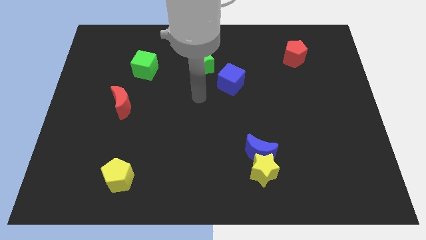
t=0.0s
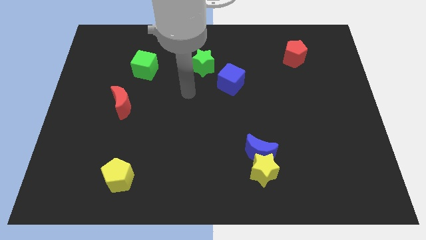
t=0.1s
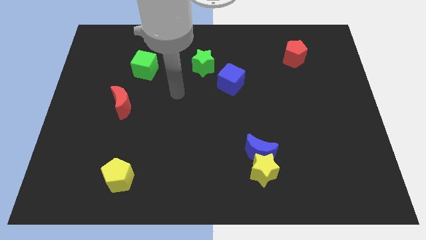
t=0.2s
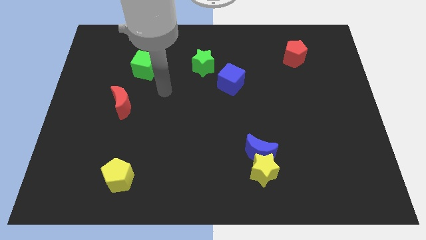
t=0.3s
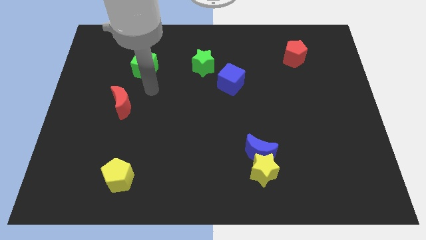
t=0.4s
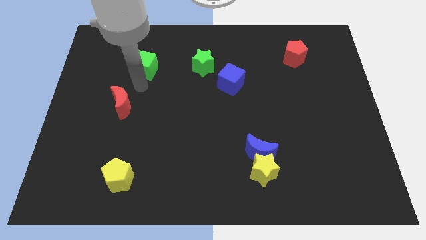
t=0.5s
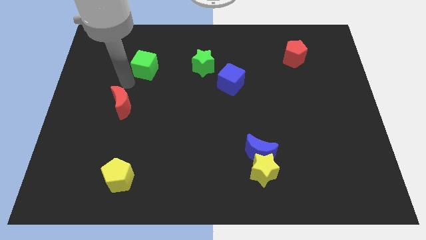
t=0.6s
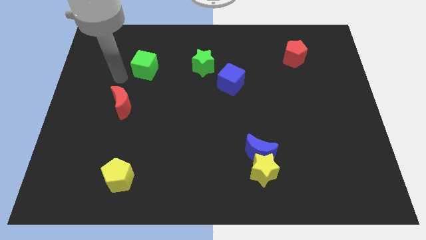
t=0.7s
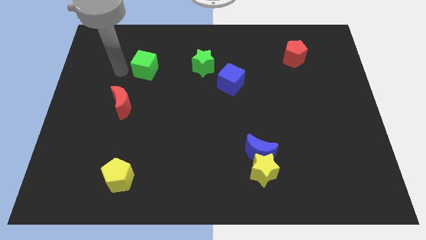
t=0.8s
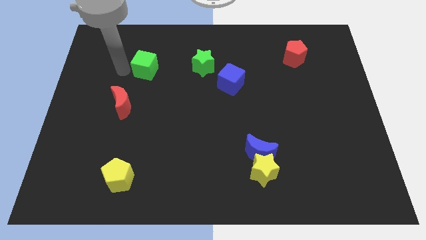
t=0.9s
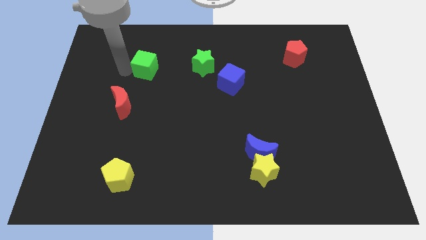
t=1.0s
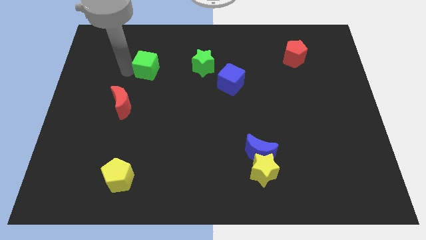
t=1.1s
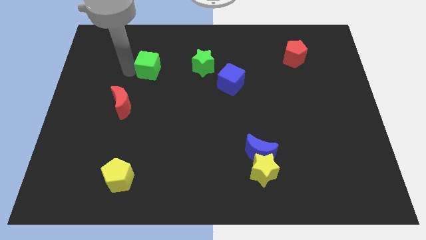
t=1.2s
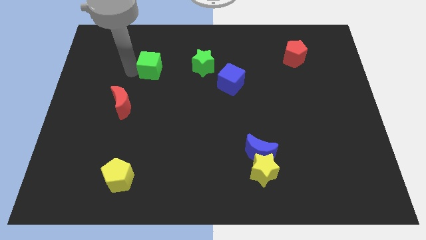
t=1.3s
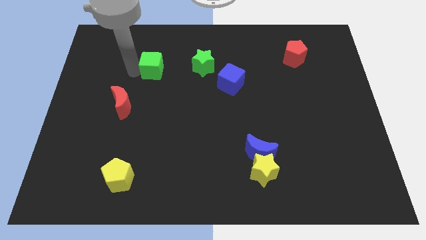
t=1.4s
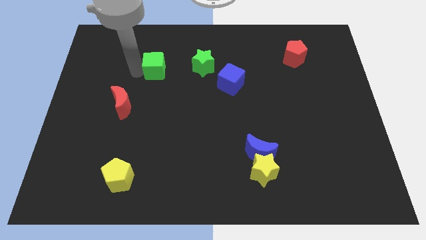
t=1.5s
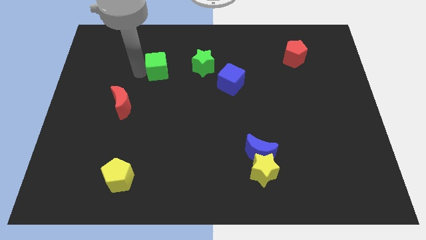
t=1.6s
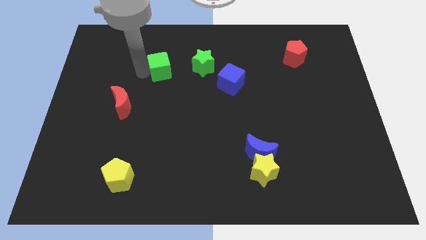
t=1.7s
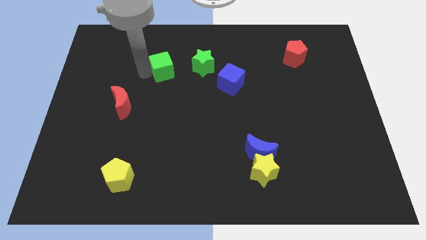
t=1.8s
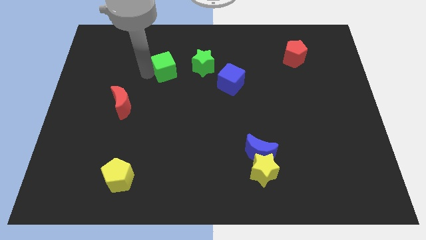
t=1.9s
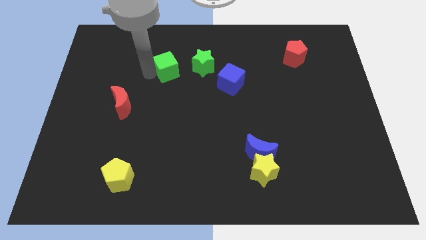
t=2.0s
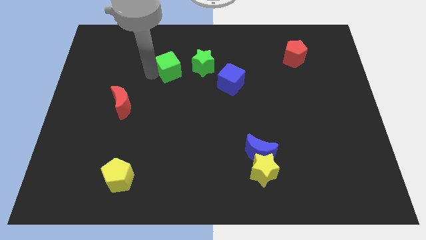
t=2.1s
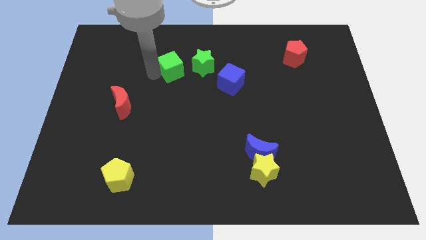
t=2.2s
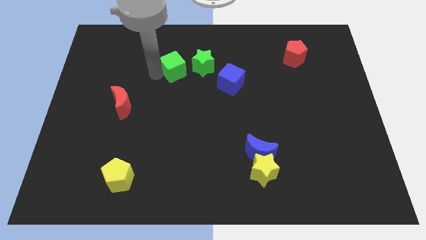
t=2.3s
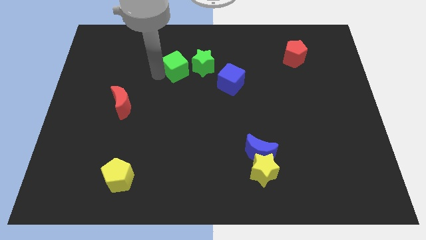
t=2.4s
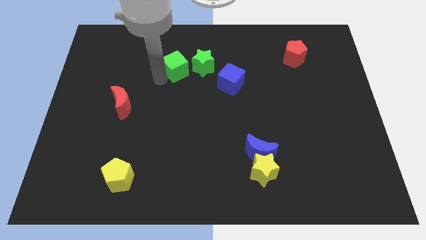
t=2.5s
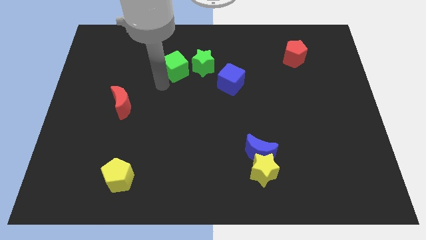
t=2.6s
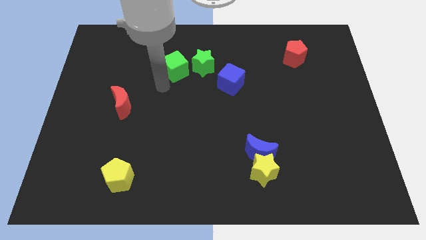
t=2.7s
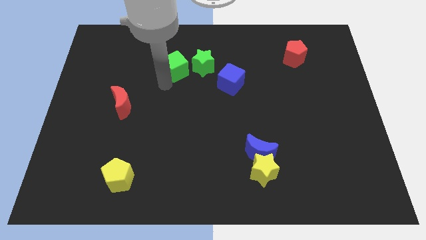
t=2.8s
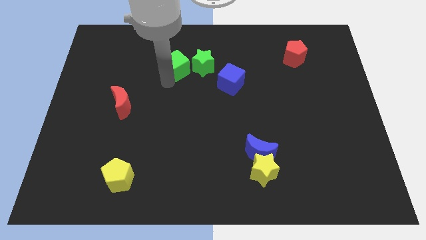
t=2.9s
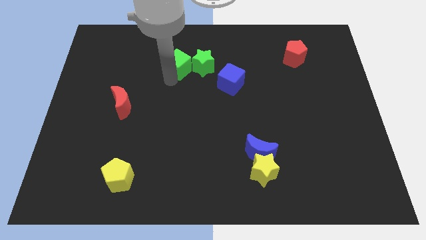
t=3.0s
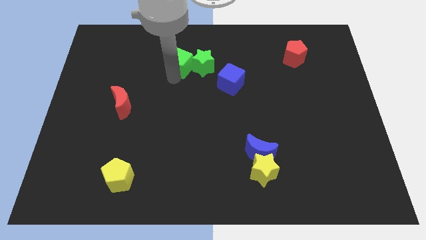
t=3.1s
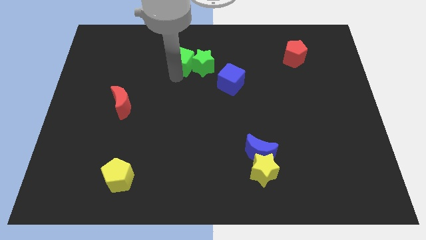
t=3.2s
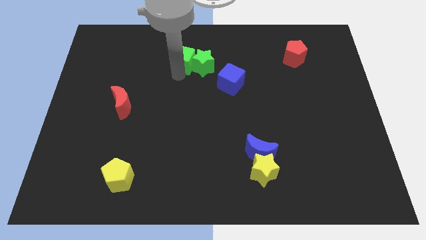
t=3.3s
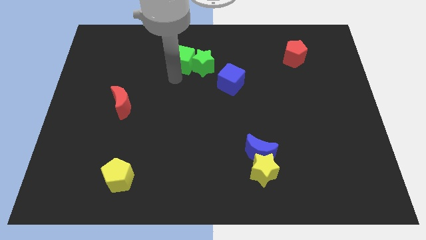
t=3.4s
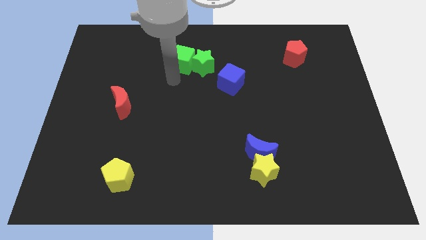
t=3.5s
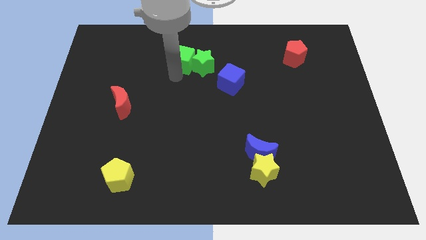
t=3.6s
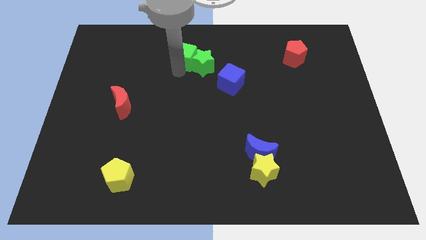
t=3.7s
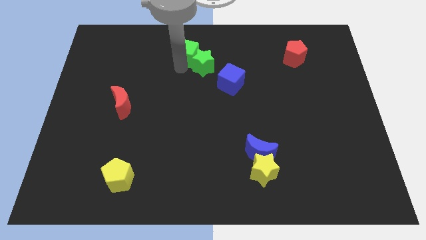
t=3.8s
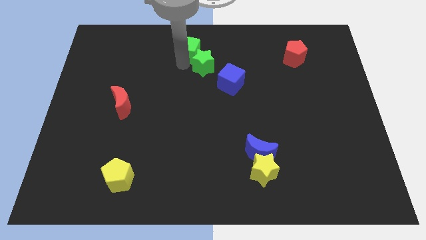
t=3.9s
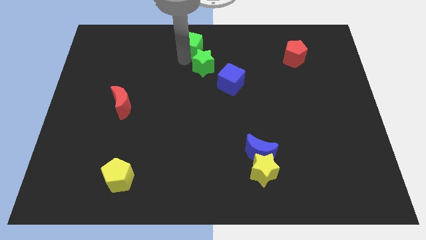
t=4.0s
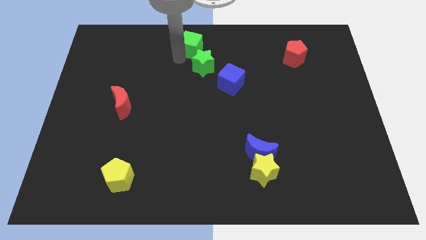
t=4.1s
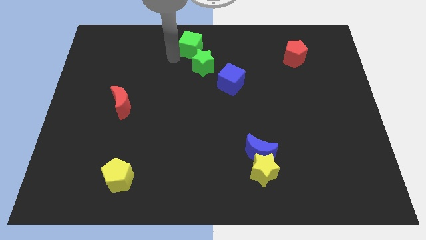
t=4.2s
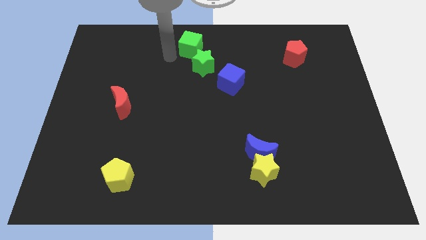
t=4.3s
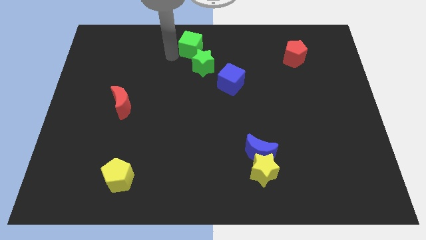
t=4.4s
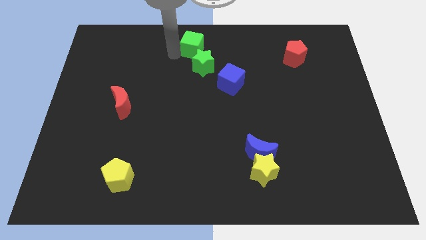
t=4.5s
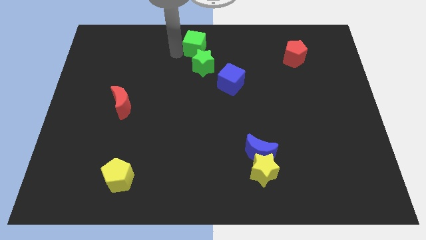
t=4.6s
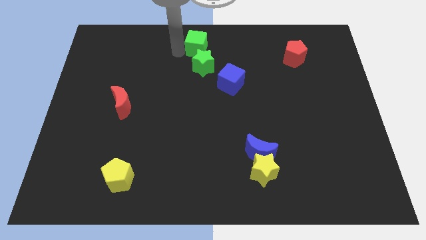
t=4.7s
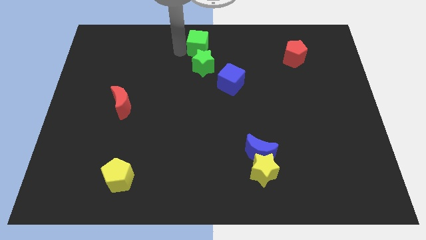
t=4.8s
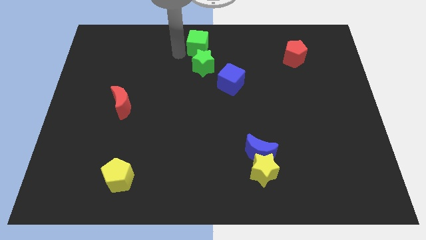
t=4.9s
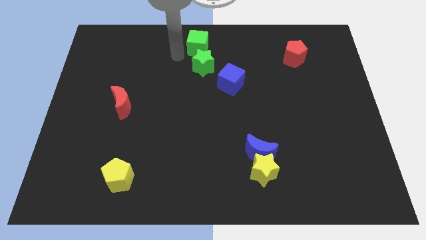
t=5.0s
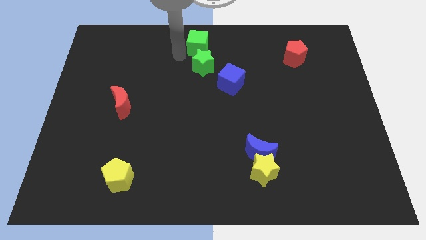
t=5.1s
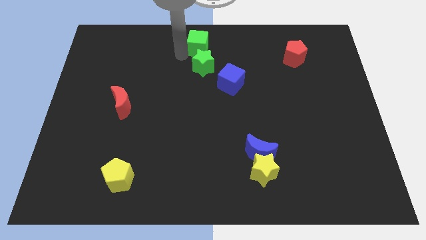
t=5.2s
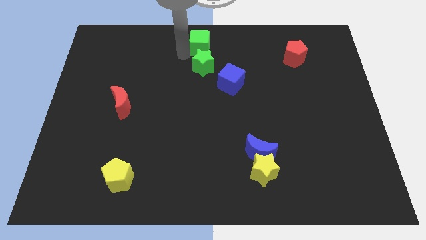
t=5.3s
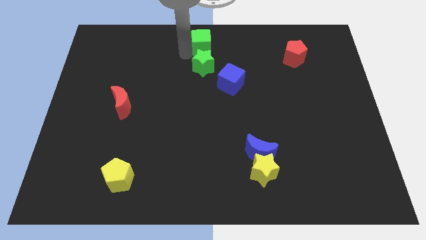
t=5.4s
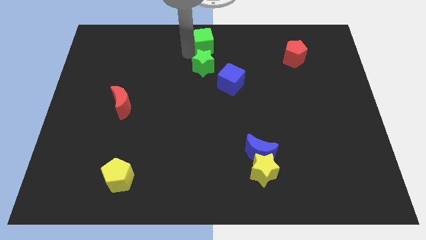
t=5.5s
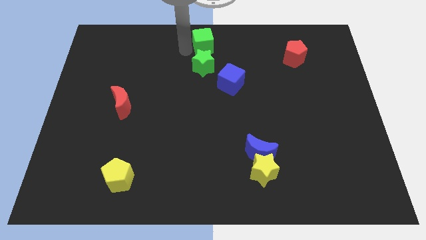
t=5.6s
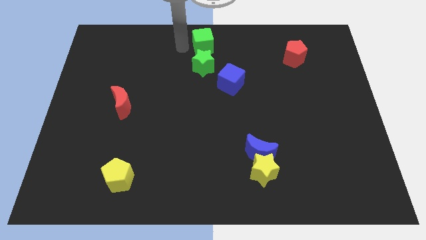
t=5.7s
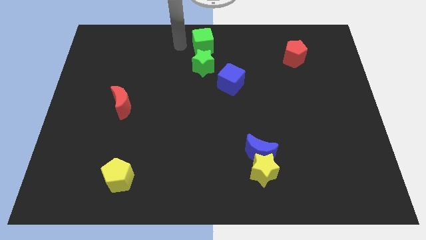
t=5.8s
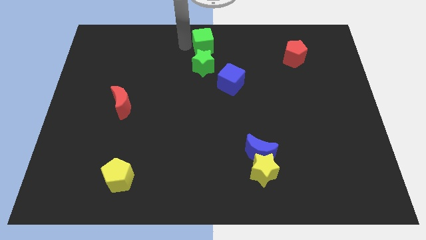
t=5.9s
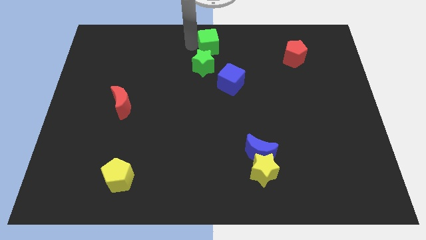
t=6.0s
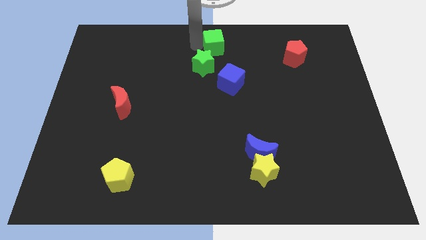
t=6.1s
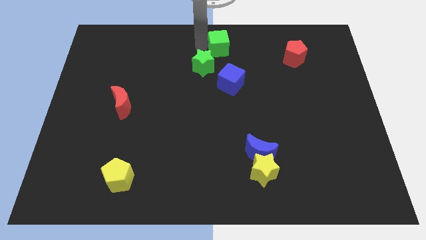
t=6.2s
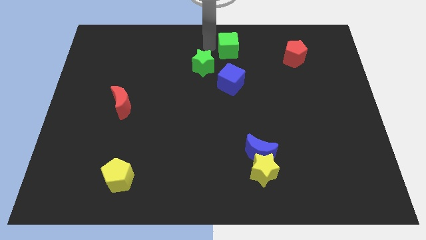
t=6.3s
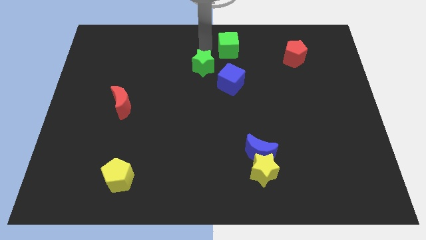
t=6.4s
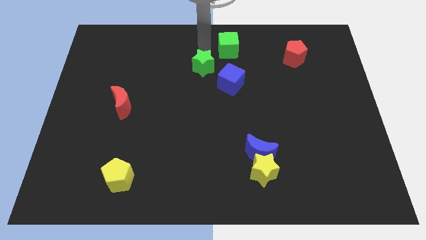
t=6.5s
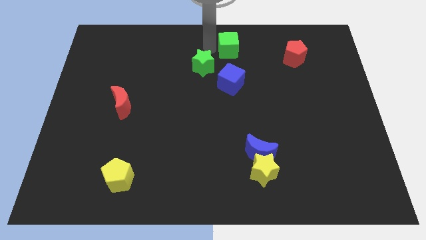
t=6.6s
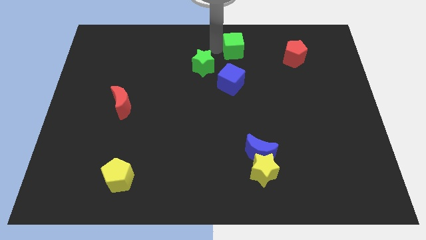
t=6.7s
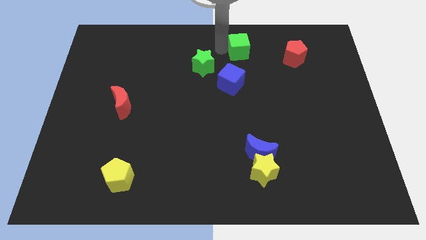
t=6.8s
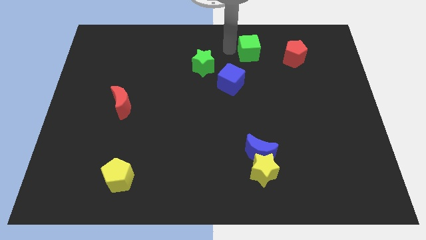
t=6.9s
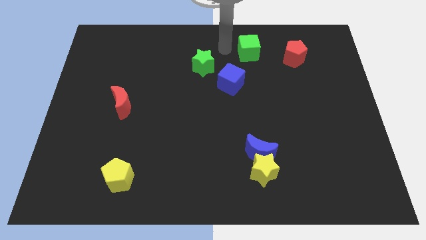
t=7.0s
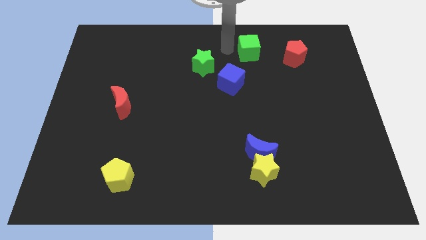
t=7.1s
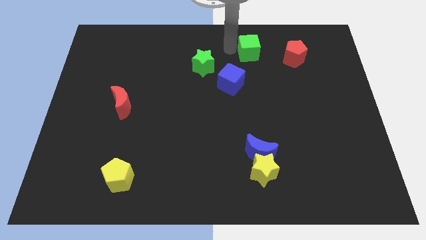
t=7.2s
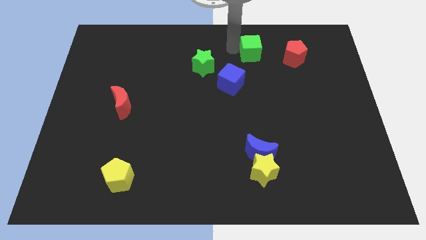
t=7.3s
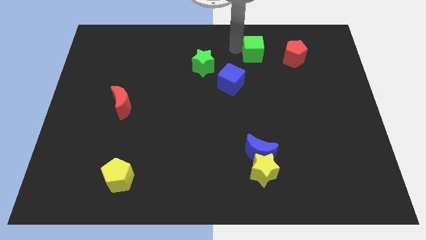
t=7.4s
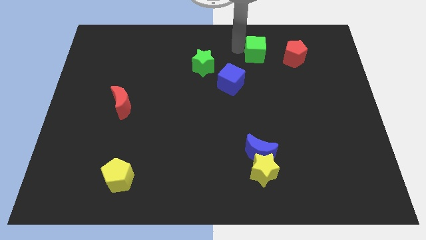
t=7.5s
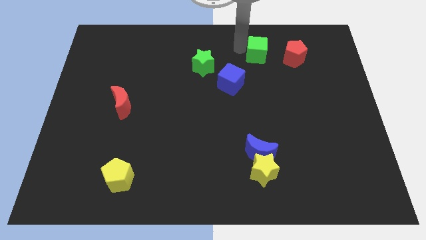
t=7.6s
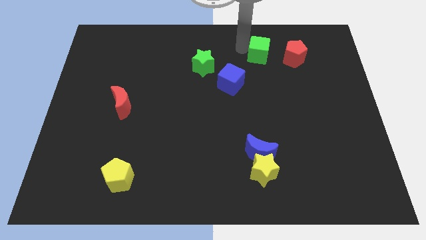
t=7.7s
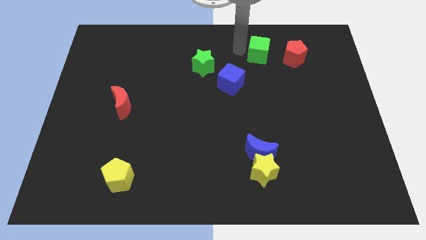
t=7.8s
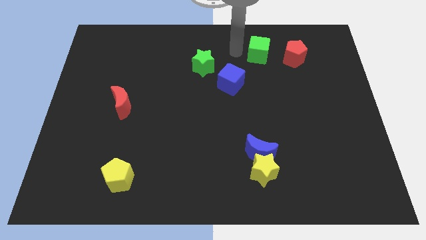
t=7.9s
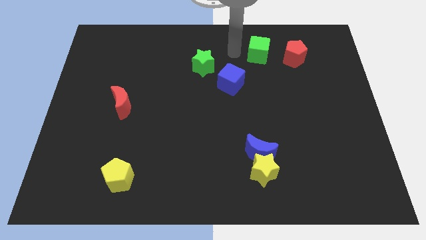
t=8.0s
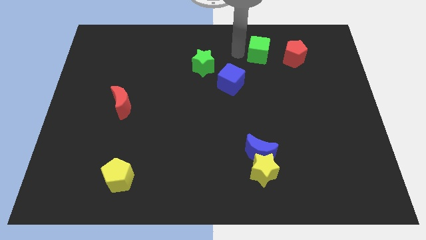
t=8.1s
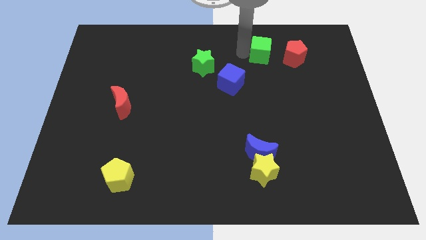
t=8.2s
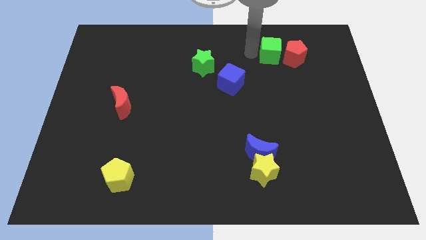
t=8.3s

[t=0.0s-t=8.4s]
put the green cube close to the red pentagon
